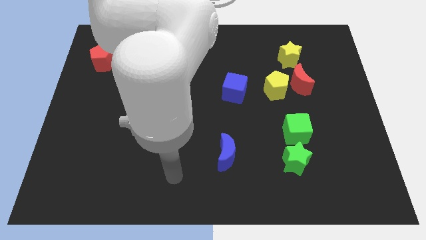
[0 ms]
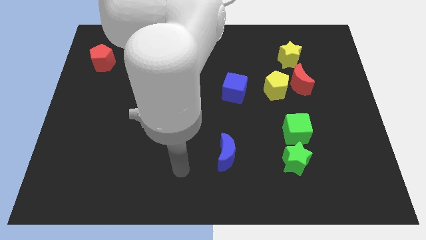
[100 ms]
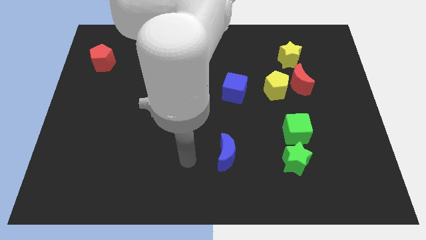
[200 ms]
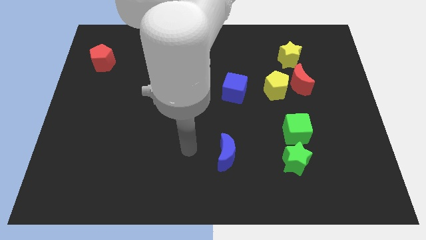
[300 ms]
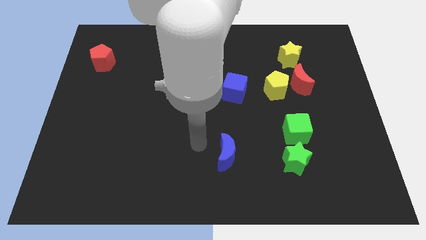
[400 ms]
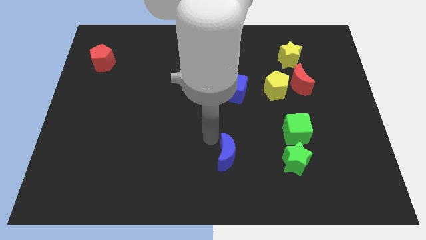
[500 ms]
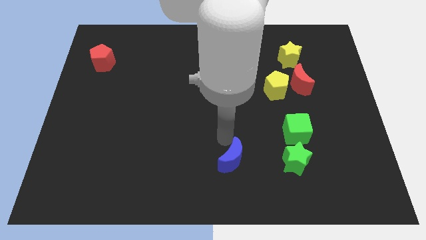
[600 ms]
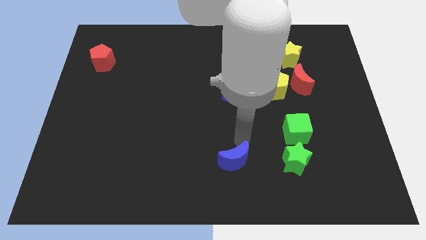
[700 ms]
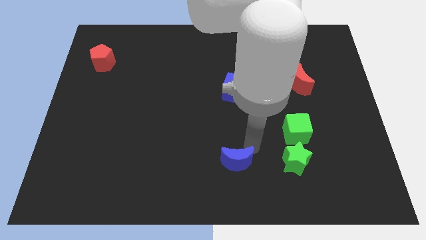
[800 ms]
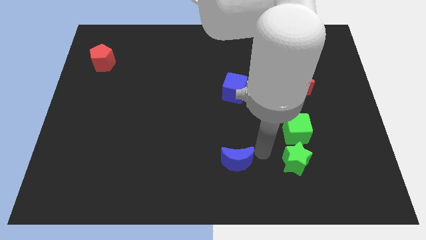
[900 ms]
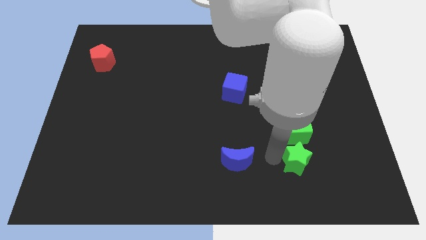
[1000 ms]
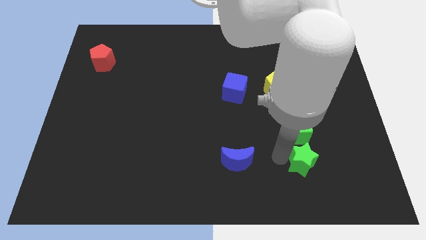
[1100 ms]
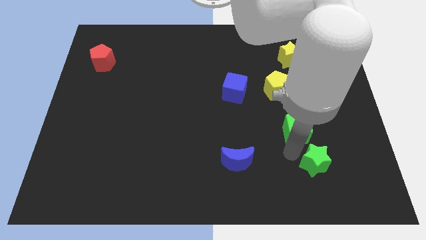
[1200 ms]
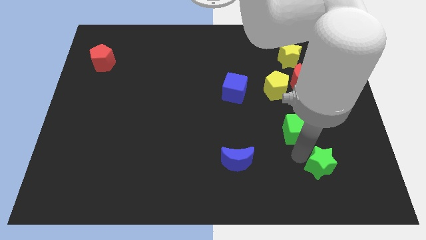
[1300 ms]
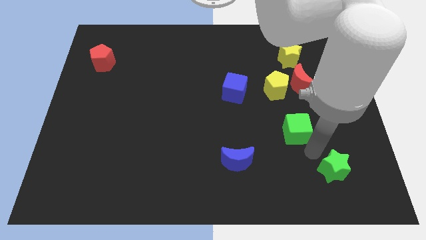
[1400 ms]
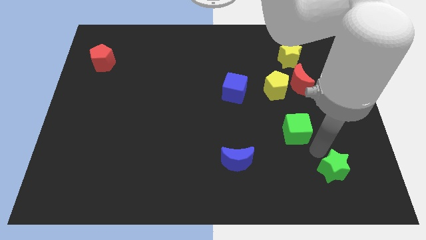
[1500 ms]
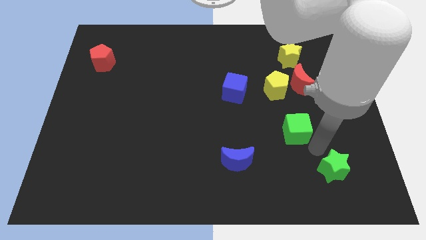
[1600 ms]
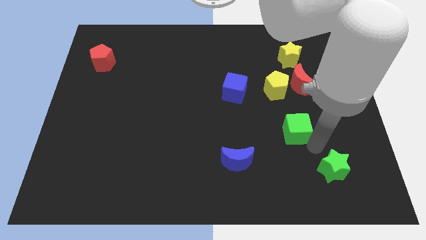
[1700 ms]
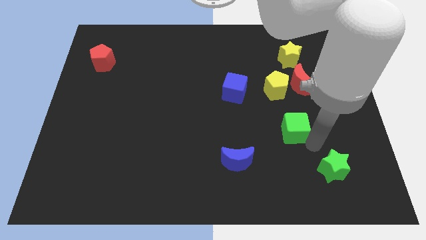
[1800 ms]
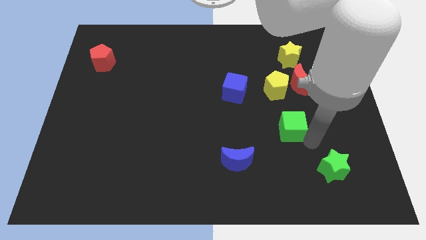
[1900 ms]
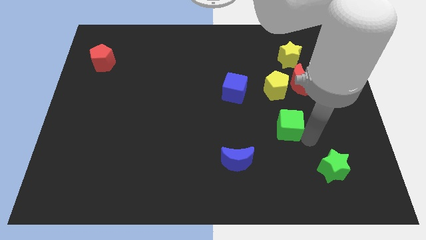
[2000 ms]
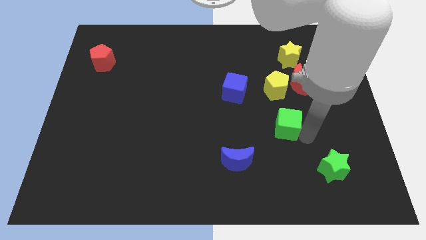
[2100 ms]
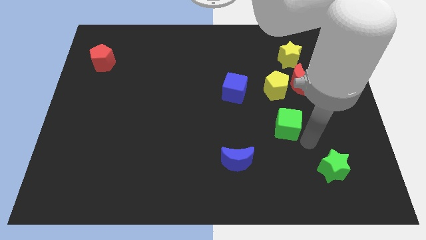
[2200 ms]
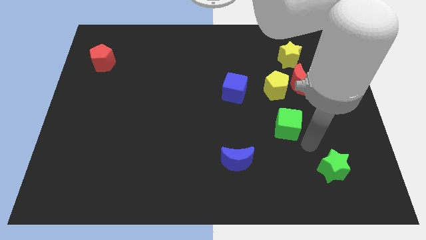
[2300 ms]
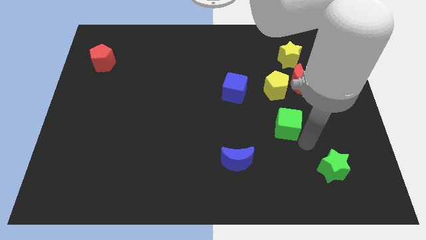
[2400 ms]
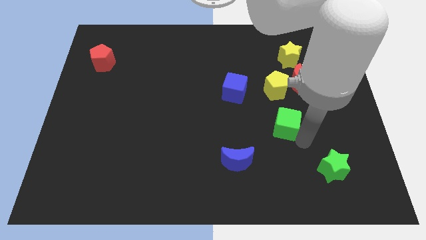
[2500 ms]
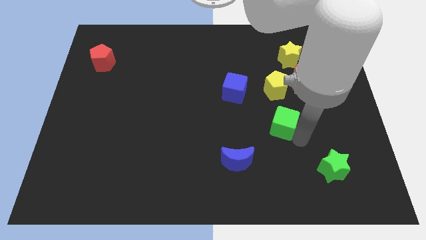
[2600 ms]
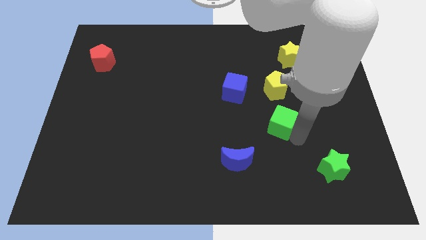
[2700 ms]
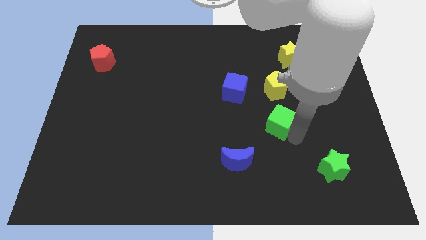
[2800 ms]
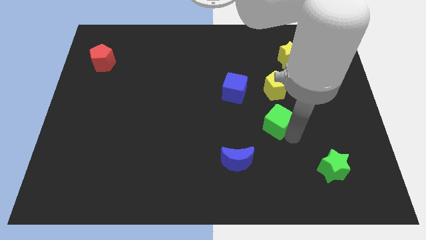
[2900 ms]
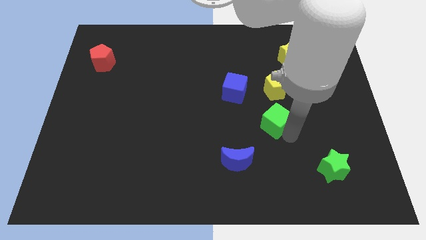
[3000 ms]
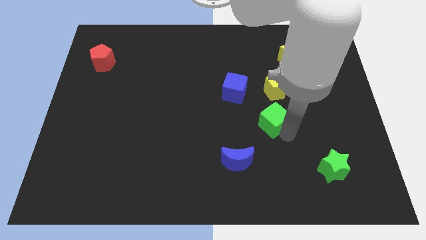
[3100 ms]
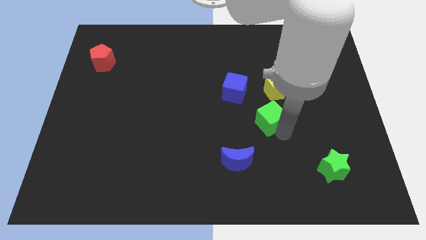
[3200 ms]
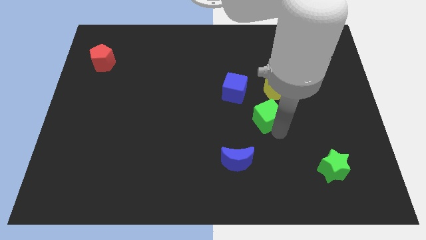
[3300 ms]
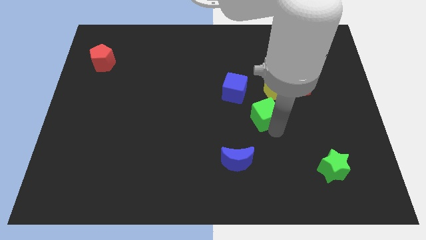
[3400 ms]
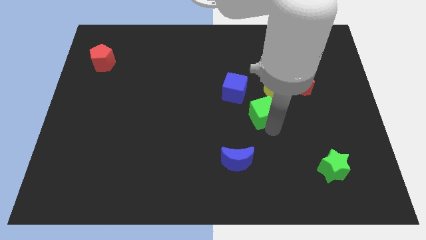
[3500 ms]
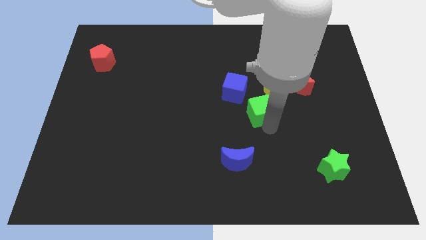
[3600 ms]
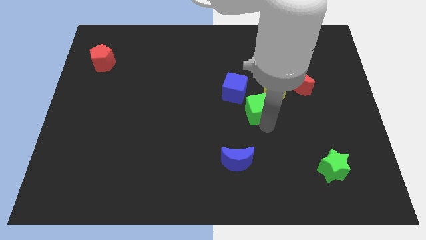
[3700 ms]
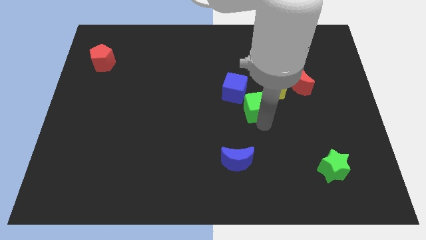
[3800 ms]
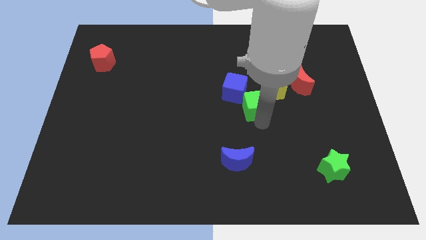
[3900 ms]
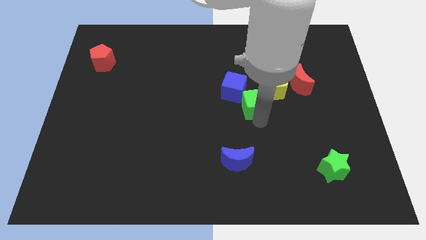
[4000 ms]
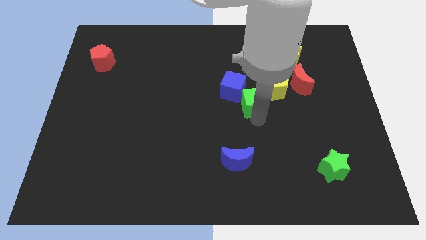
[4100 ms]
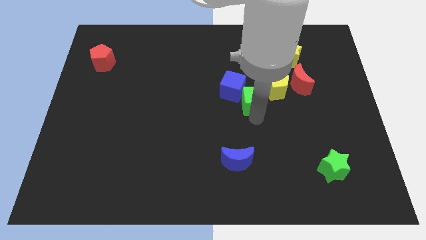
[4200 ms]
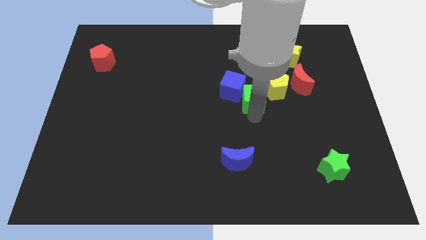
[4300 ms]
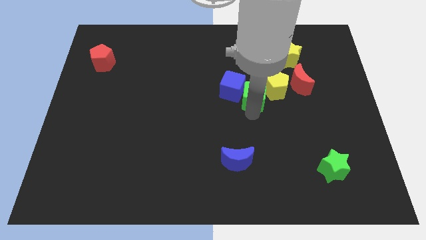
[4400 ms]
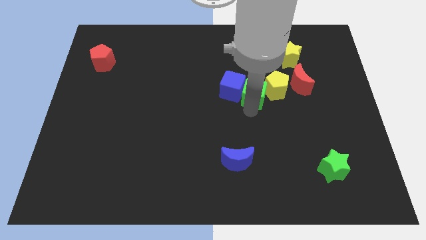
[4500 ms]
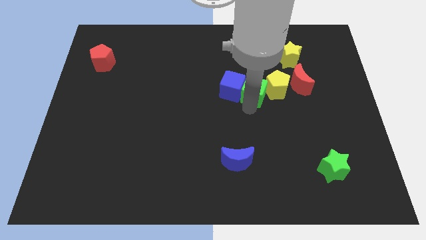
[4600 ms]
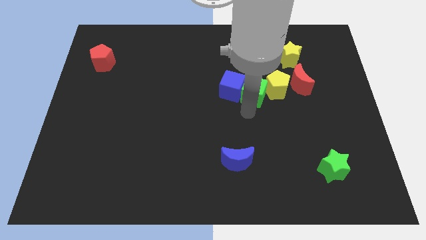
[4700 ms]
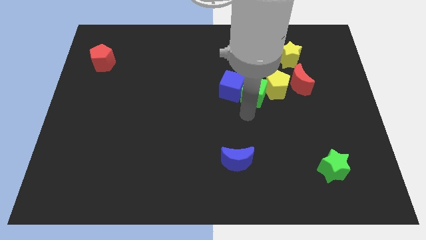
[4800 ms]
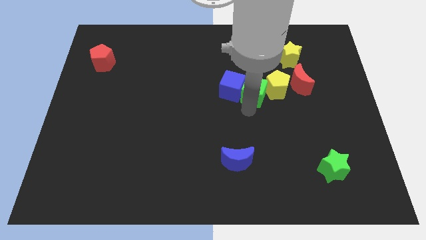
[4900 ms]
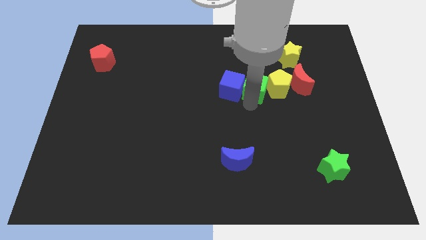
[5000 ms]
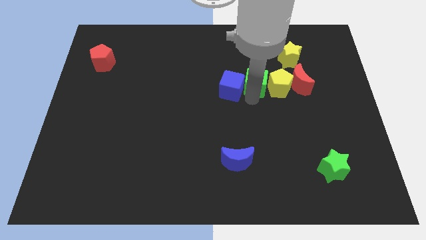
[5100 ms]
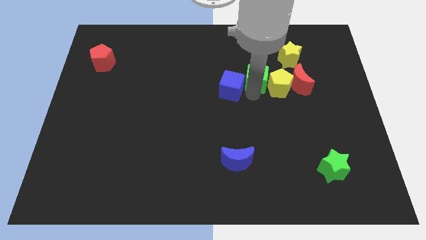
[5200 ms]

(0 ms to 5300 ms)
put the green cube diagonally down and to the left of the yellow star

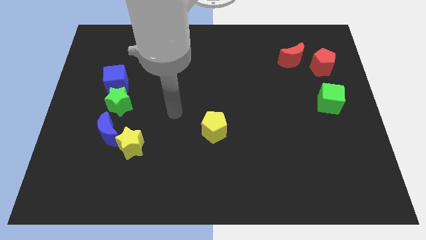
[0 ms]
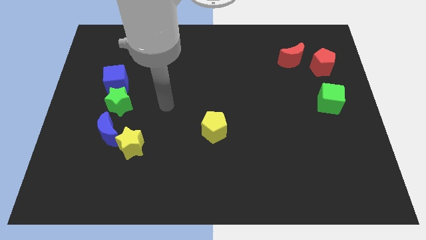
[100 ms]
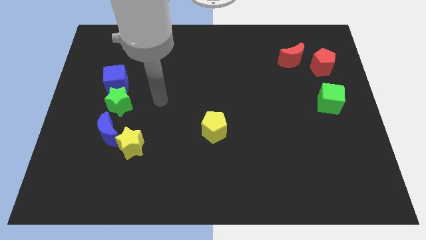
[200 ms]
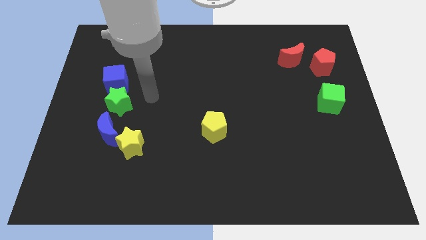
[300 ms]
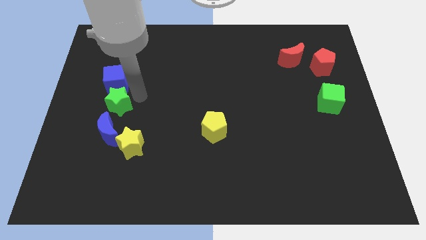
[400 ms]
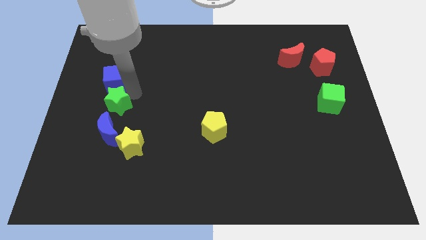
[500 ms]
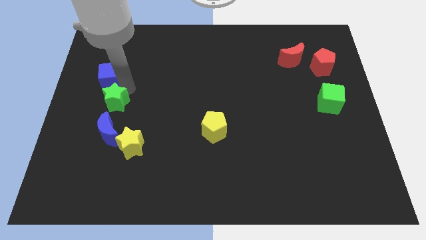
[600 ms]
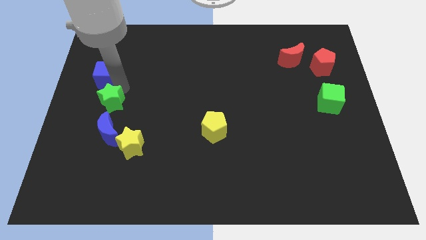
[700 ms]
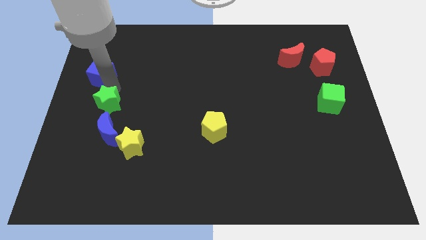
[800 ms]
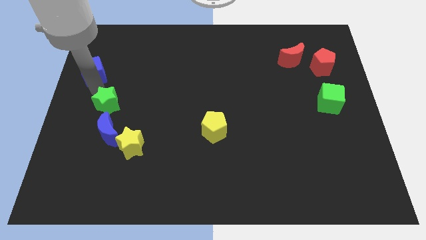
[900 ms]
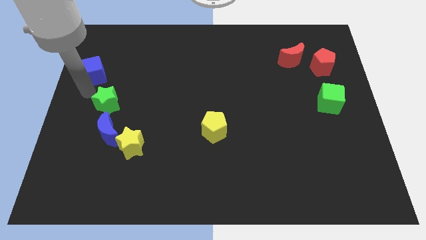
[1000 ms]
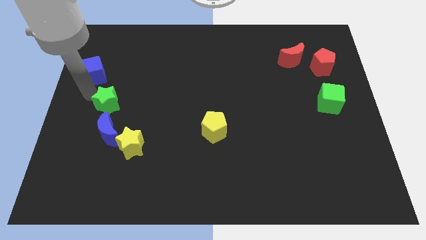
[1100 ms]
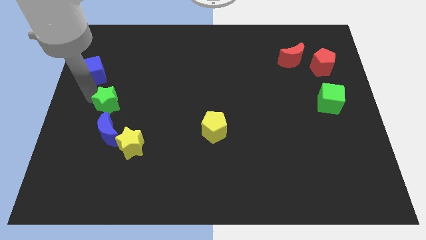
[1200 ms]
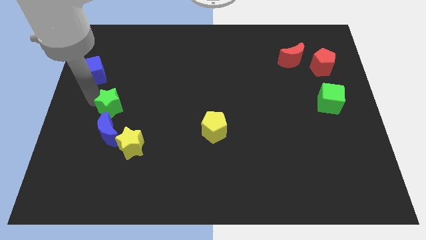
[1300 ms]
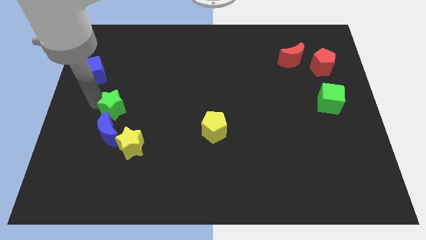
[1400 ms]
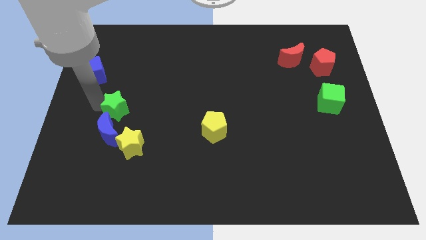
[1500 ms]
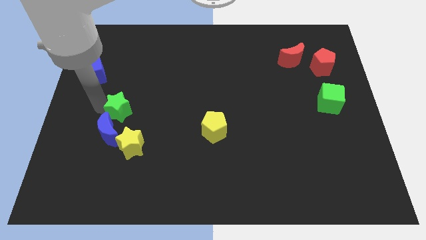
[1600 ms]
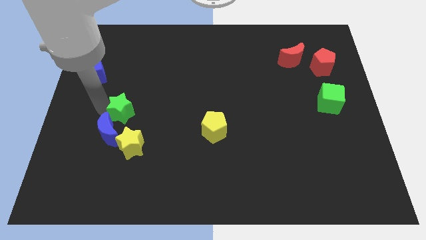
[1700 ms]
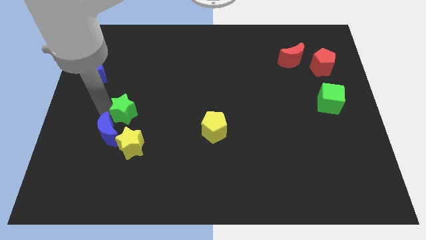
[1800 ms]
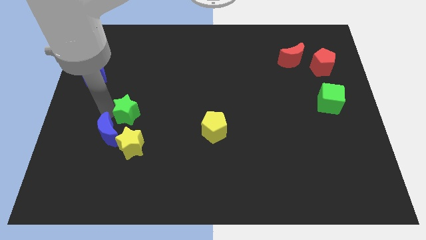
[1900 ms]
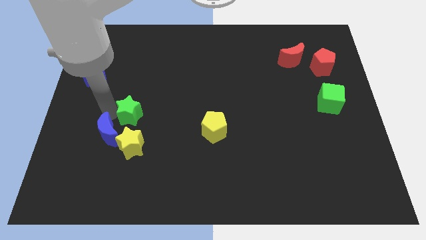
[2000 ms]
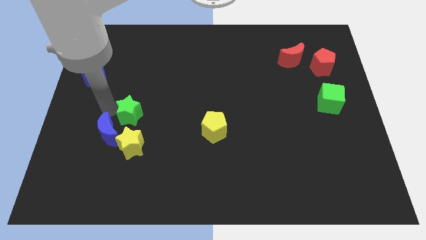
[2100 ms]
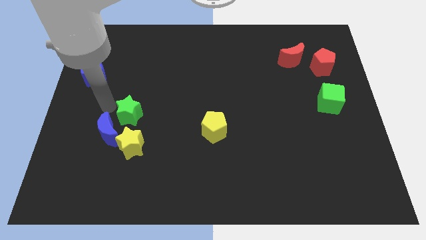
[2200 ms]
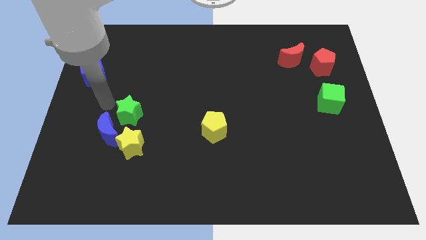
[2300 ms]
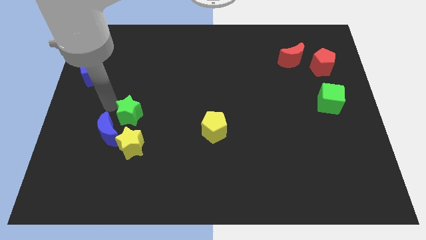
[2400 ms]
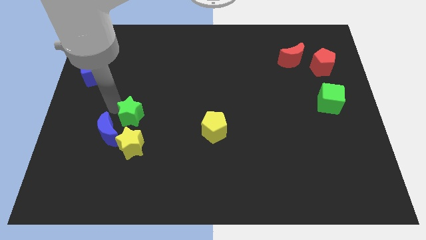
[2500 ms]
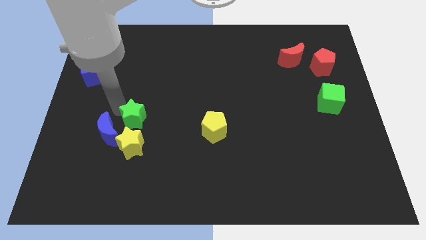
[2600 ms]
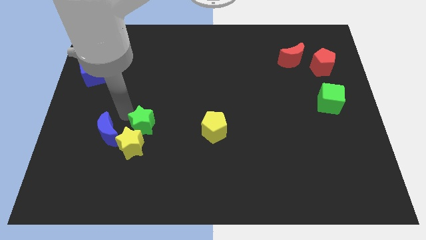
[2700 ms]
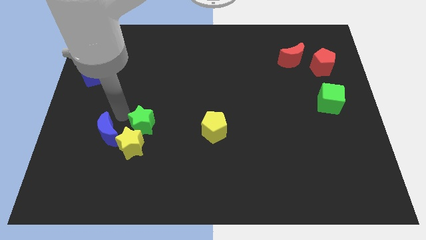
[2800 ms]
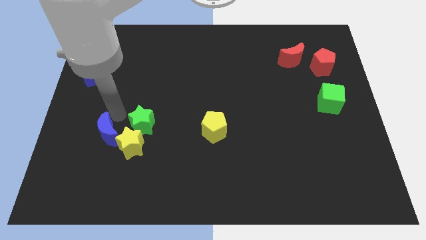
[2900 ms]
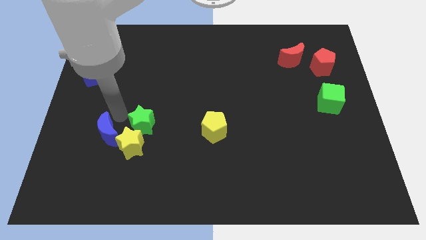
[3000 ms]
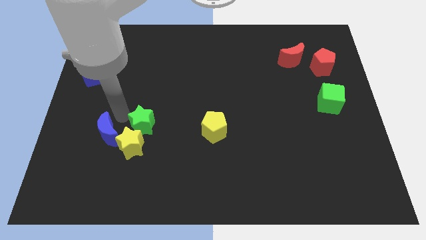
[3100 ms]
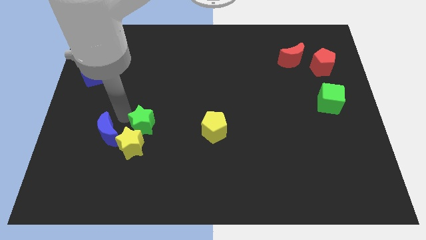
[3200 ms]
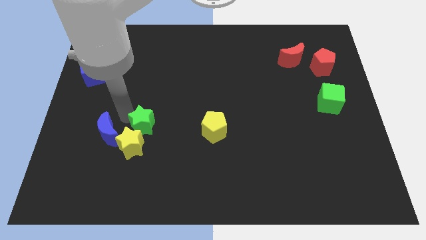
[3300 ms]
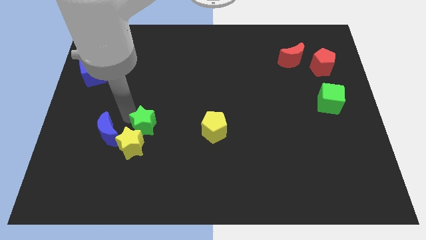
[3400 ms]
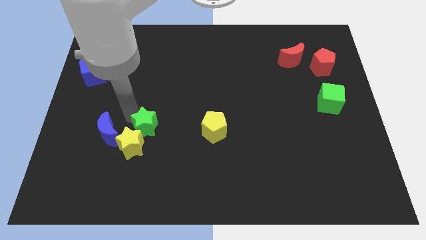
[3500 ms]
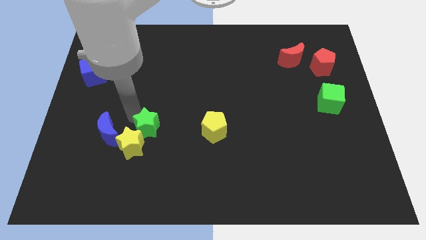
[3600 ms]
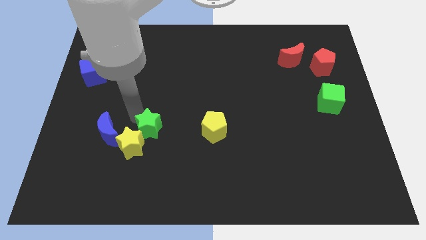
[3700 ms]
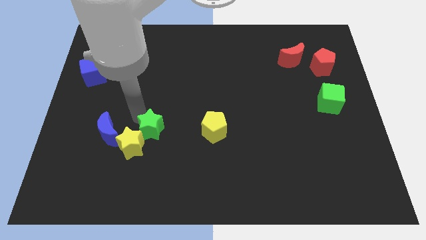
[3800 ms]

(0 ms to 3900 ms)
slide the green star to the right side of the yellow star
